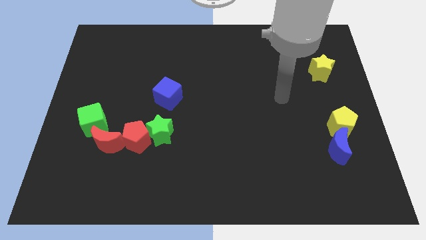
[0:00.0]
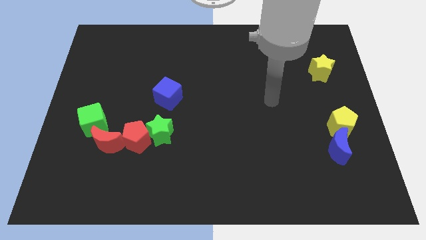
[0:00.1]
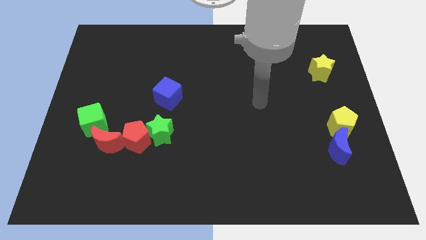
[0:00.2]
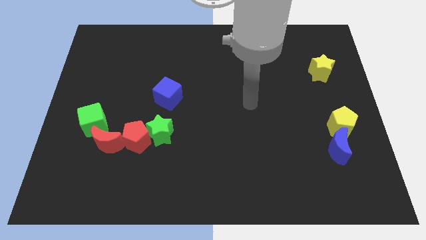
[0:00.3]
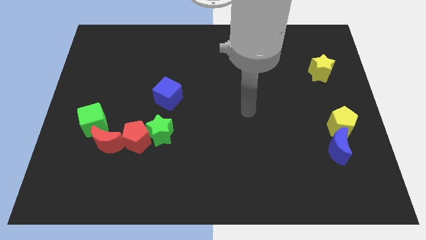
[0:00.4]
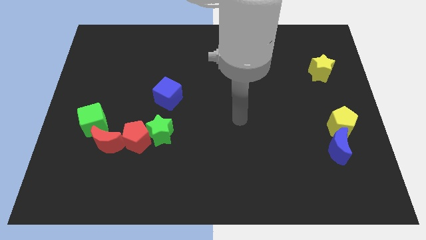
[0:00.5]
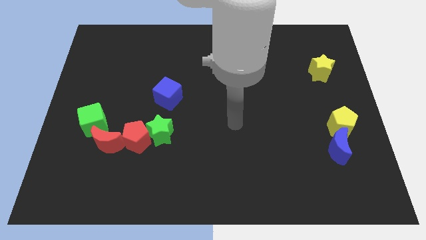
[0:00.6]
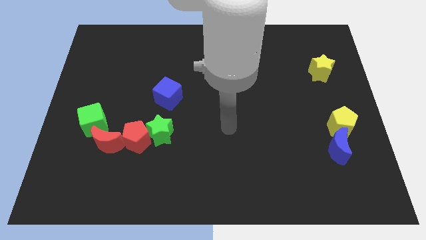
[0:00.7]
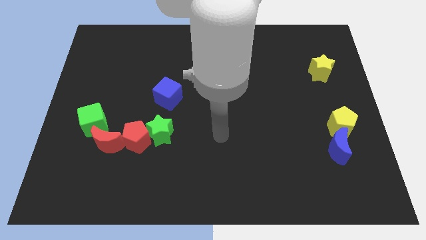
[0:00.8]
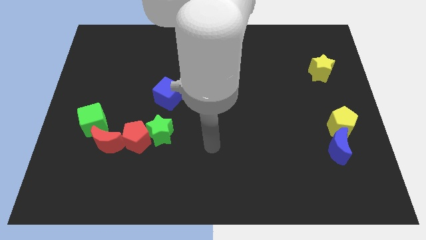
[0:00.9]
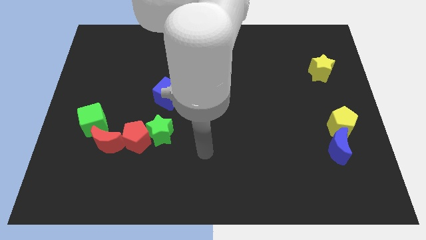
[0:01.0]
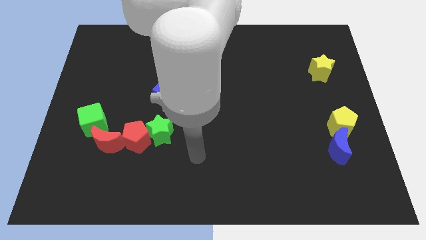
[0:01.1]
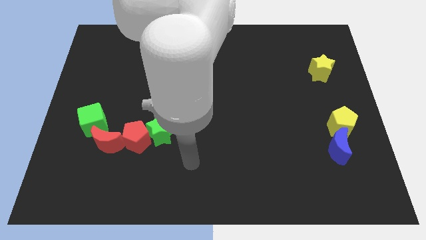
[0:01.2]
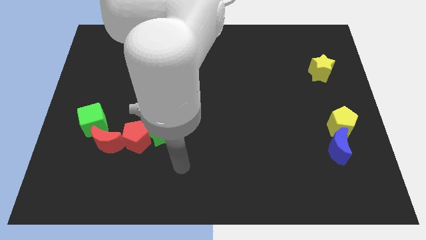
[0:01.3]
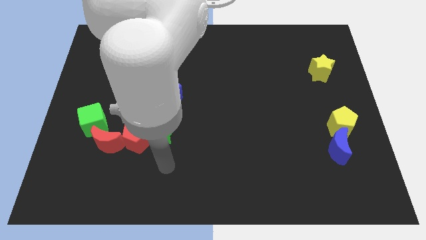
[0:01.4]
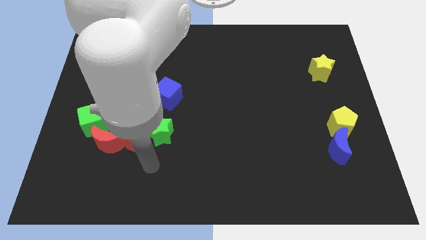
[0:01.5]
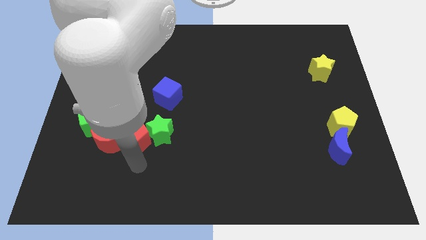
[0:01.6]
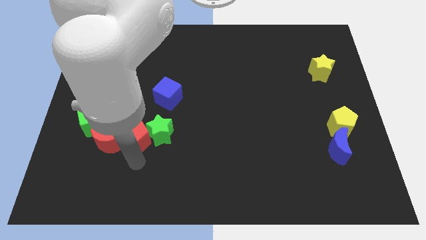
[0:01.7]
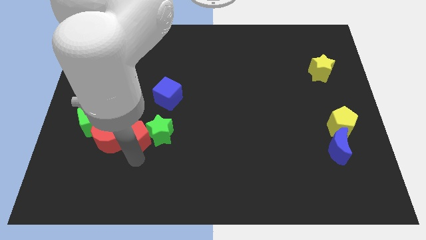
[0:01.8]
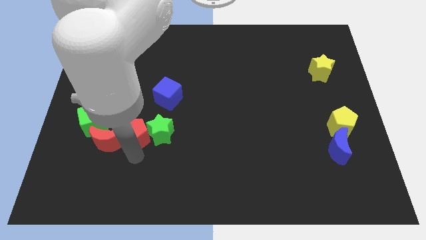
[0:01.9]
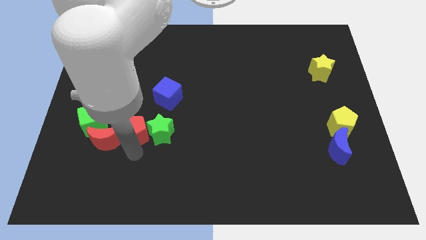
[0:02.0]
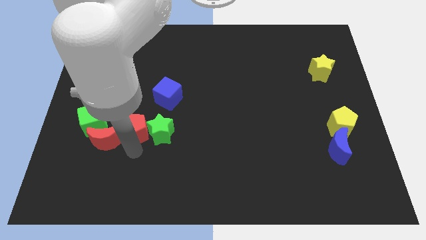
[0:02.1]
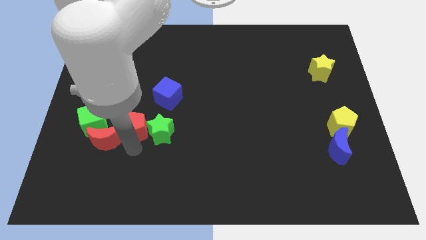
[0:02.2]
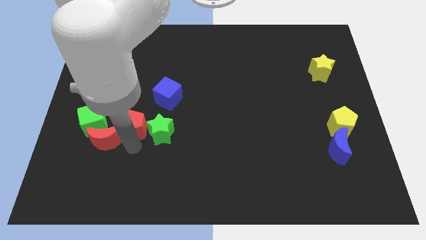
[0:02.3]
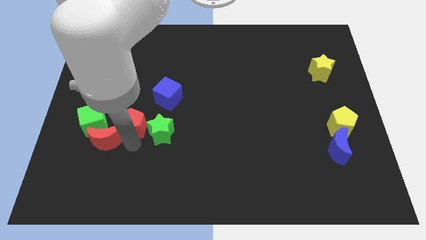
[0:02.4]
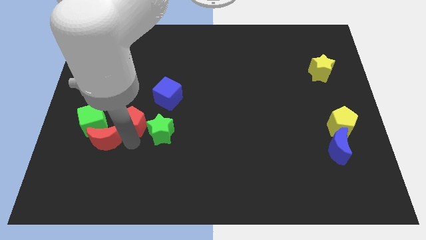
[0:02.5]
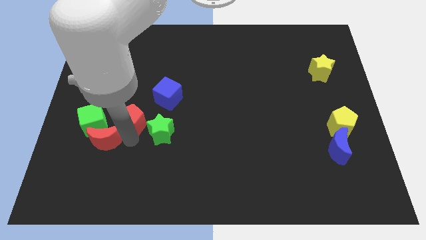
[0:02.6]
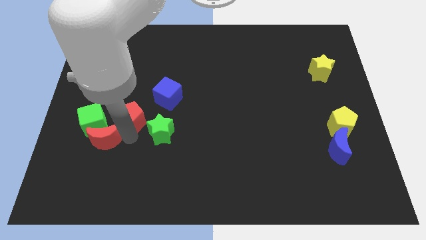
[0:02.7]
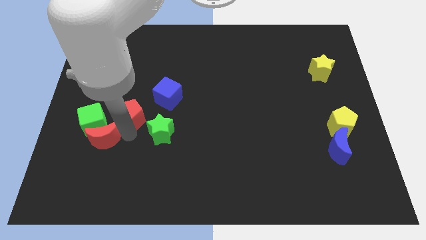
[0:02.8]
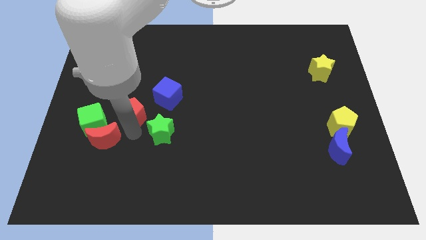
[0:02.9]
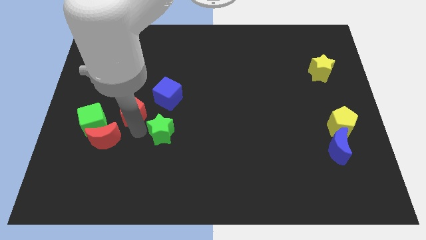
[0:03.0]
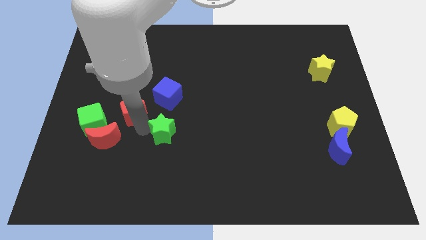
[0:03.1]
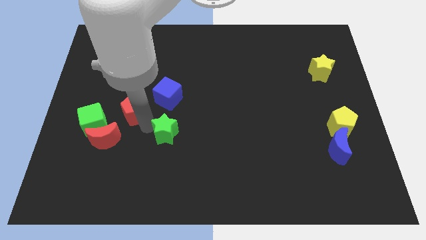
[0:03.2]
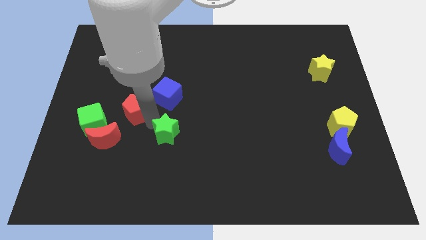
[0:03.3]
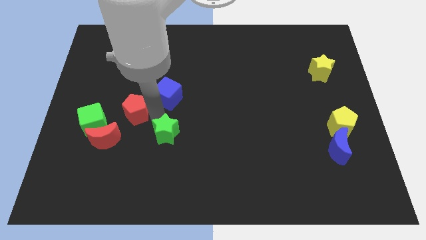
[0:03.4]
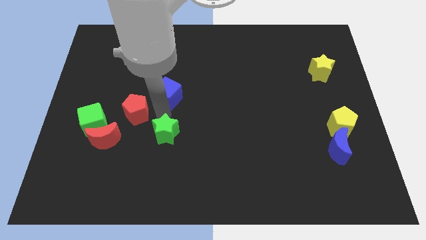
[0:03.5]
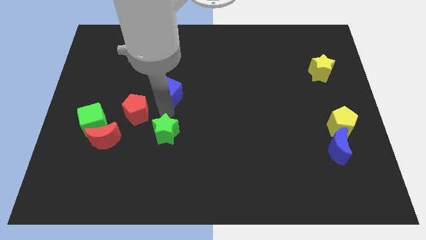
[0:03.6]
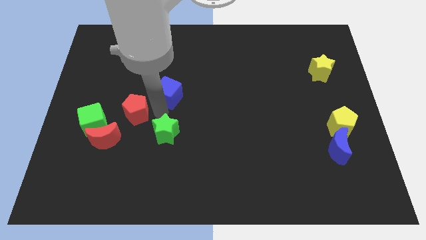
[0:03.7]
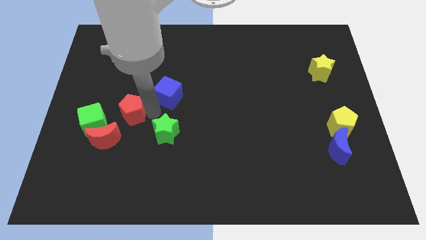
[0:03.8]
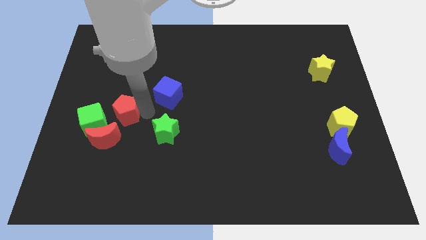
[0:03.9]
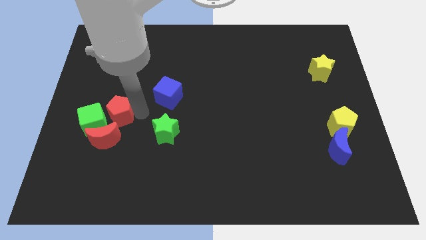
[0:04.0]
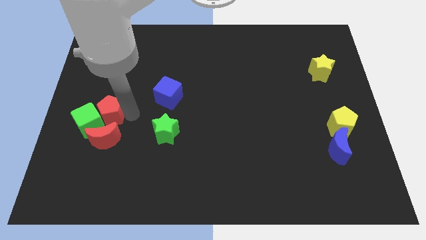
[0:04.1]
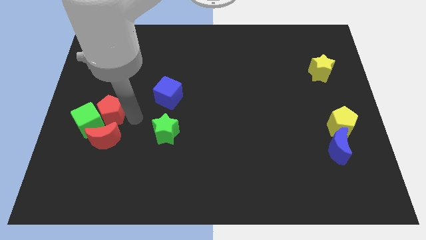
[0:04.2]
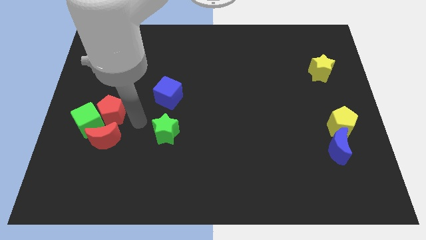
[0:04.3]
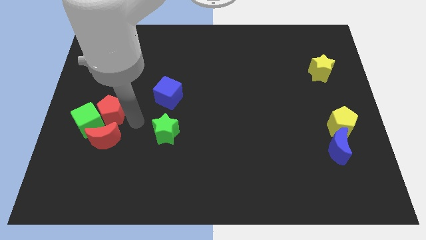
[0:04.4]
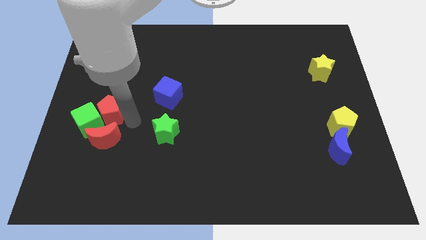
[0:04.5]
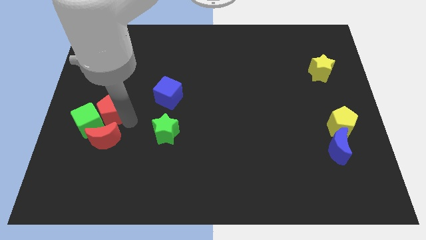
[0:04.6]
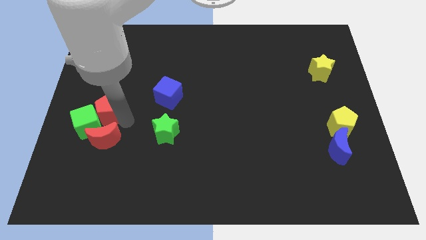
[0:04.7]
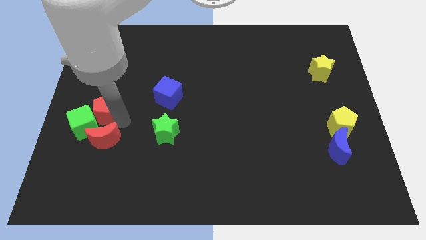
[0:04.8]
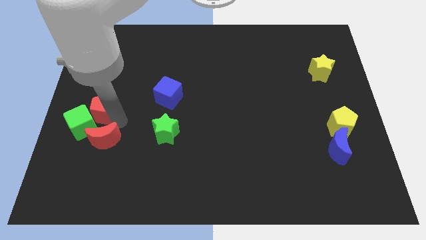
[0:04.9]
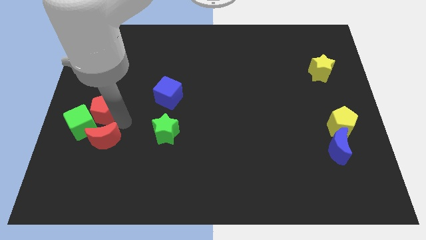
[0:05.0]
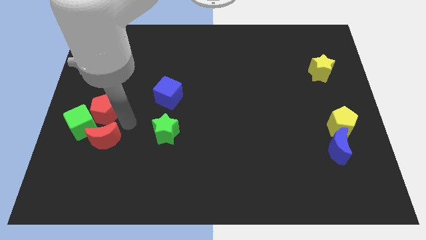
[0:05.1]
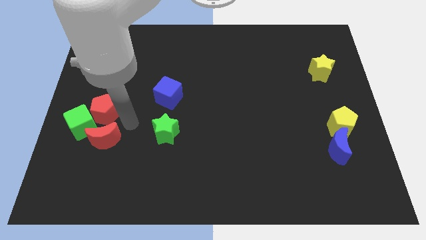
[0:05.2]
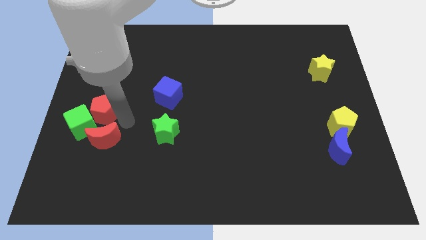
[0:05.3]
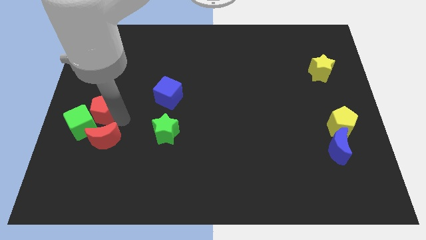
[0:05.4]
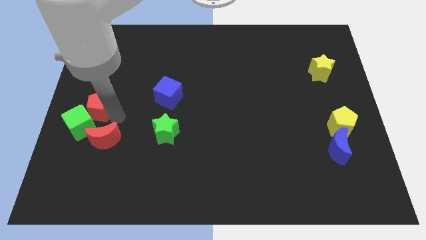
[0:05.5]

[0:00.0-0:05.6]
slide the red pentagon to the center left

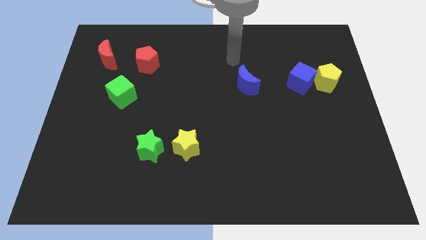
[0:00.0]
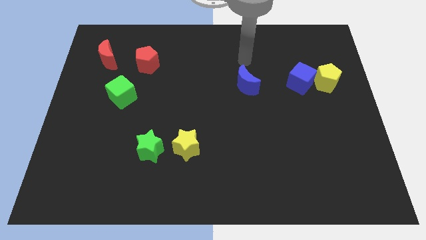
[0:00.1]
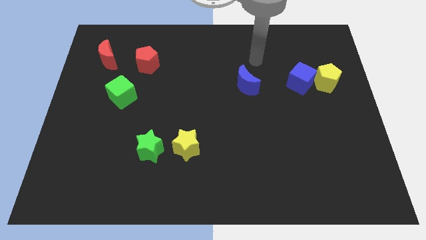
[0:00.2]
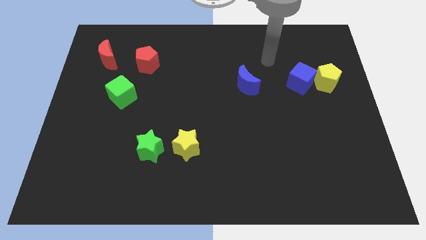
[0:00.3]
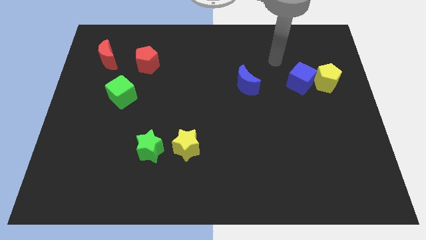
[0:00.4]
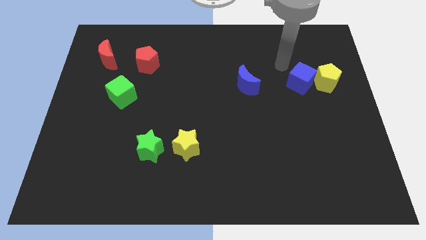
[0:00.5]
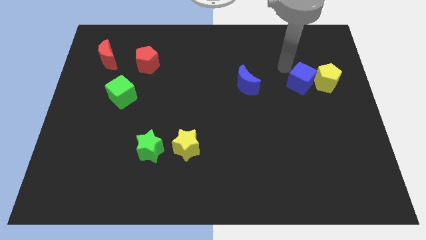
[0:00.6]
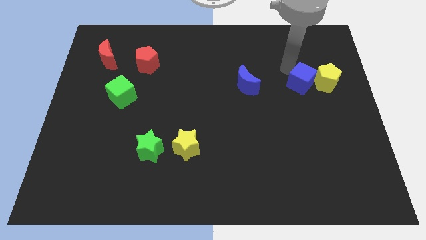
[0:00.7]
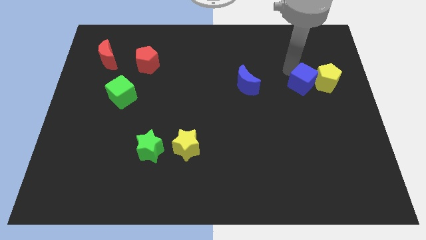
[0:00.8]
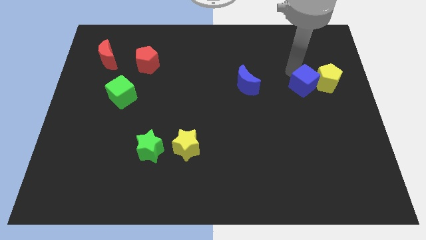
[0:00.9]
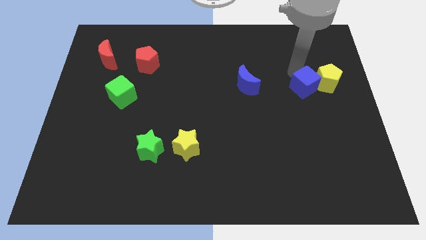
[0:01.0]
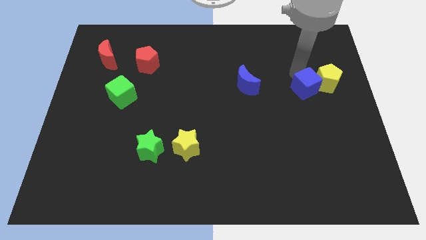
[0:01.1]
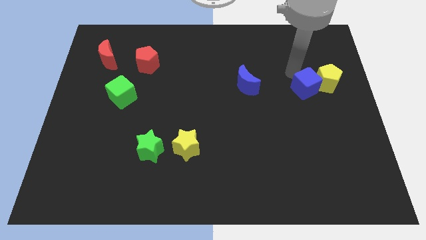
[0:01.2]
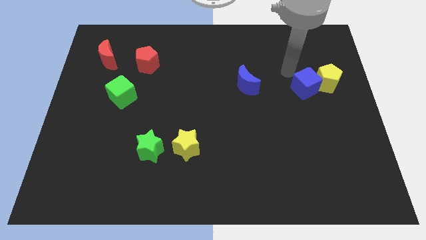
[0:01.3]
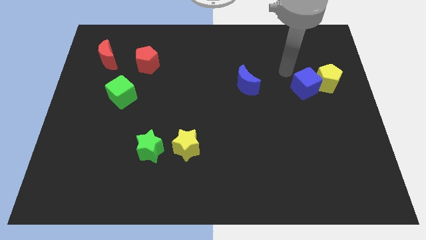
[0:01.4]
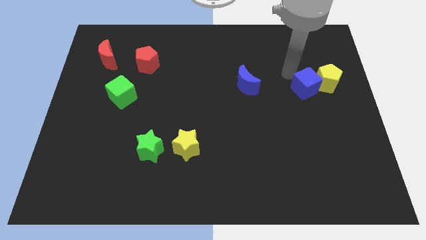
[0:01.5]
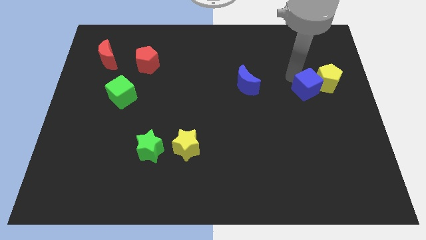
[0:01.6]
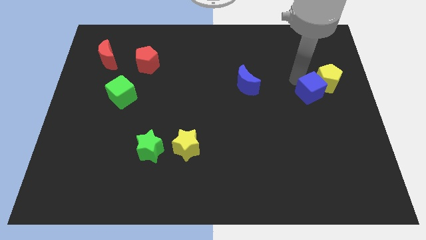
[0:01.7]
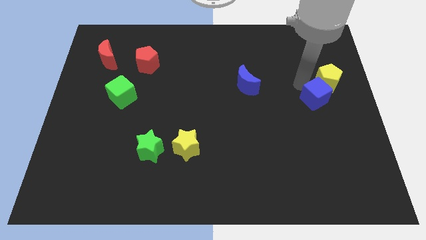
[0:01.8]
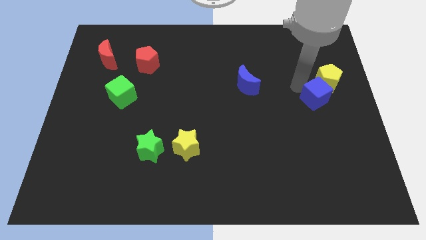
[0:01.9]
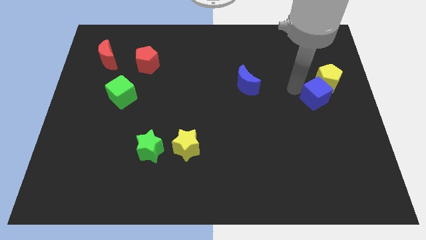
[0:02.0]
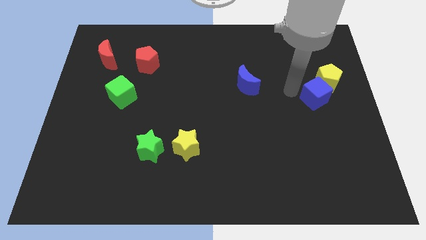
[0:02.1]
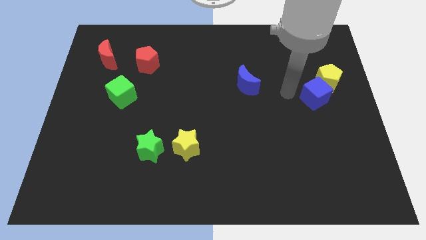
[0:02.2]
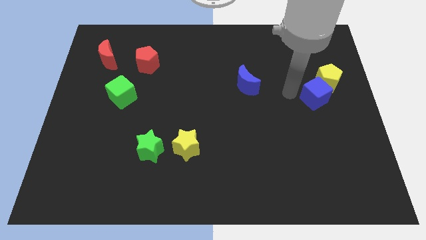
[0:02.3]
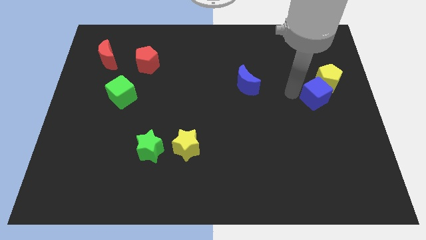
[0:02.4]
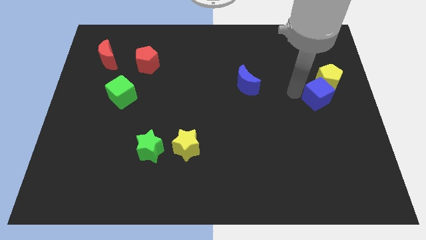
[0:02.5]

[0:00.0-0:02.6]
move the blue cube to the center right
